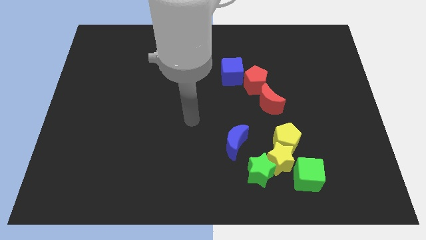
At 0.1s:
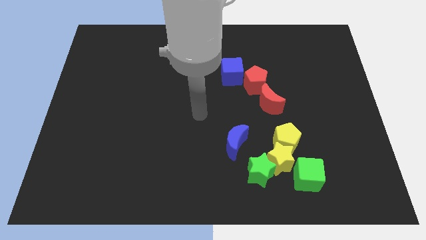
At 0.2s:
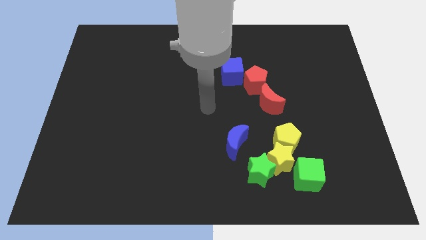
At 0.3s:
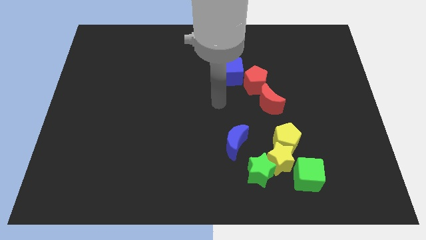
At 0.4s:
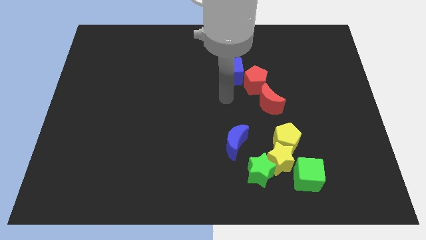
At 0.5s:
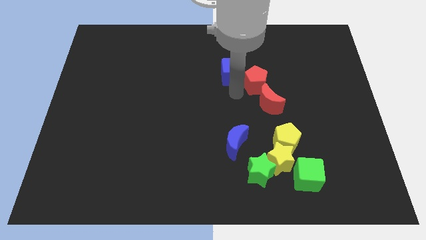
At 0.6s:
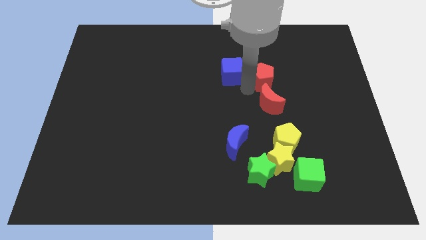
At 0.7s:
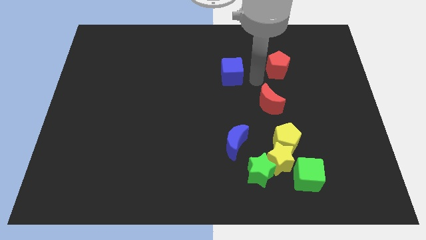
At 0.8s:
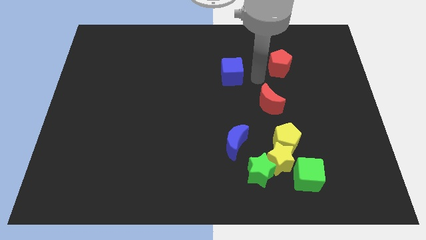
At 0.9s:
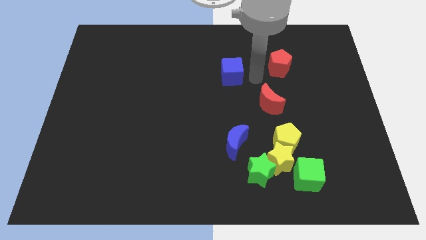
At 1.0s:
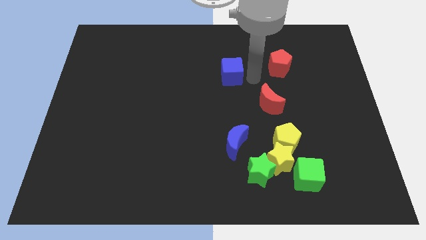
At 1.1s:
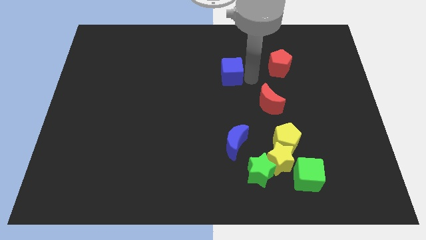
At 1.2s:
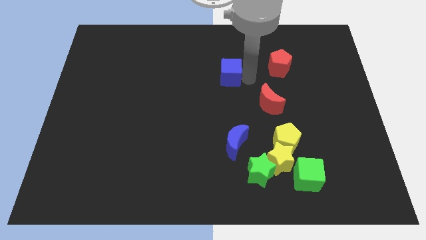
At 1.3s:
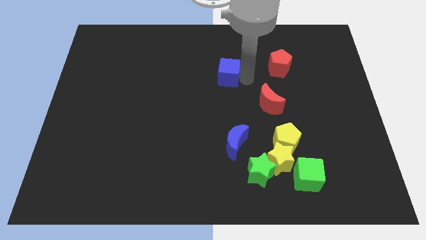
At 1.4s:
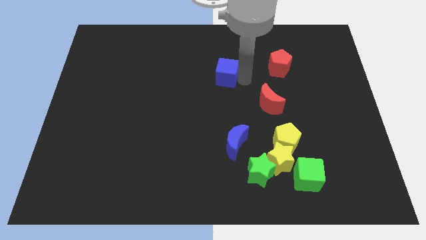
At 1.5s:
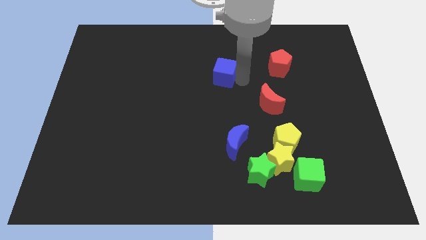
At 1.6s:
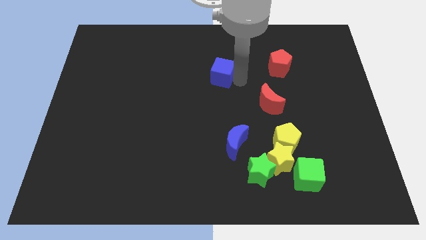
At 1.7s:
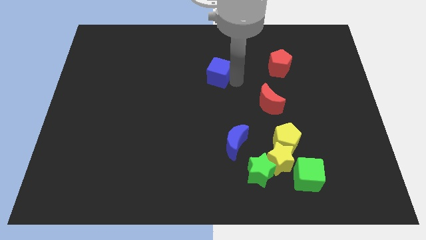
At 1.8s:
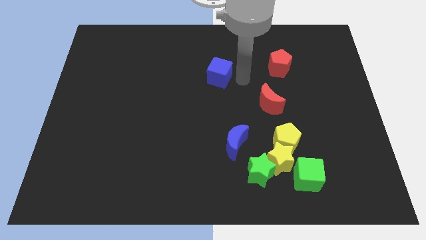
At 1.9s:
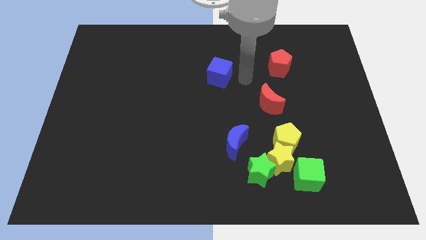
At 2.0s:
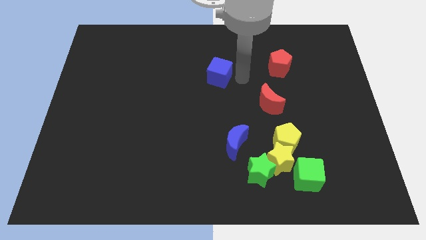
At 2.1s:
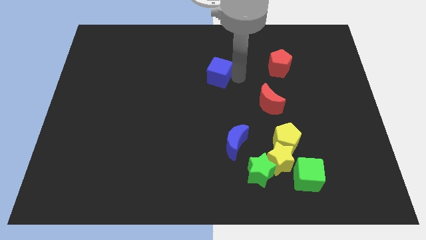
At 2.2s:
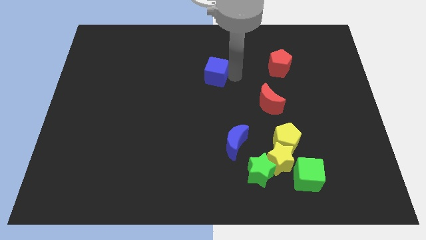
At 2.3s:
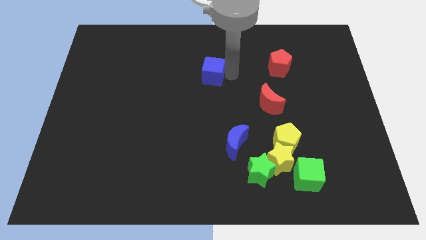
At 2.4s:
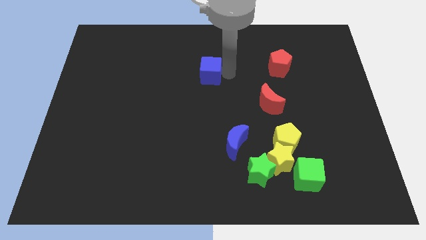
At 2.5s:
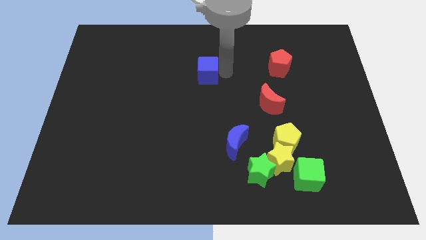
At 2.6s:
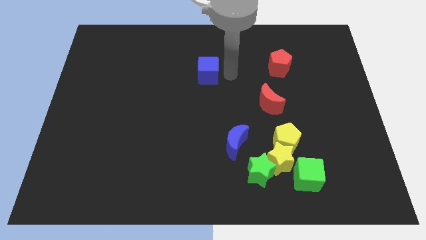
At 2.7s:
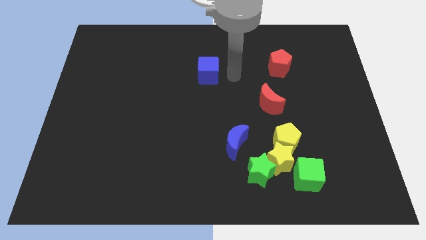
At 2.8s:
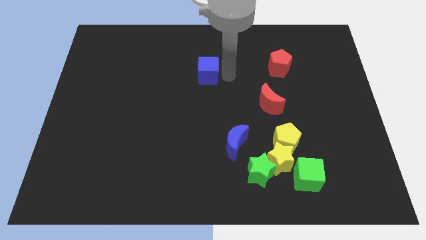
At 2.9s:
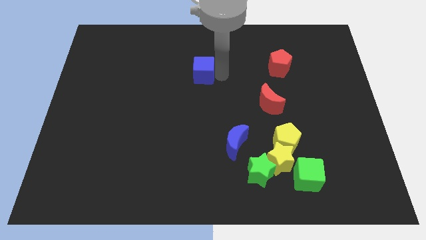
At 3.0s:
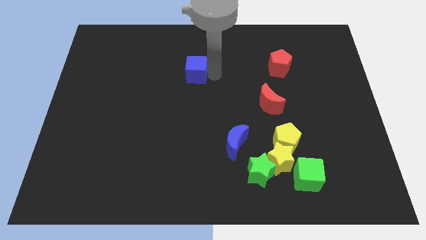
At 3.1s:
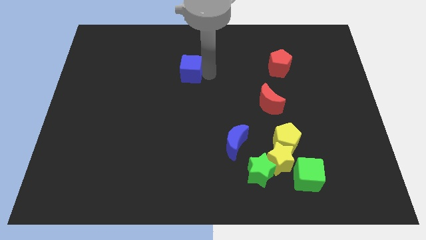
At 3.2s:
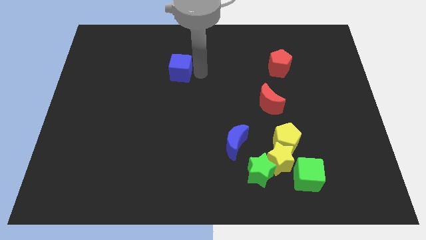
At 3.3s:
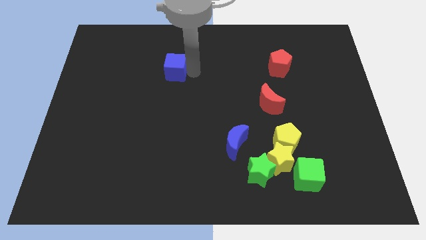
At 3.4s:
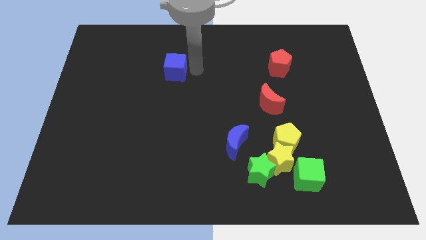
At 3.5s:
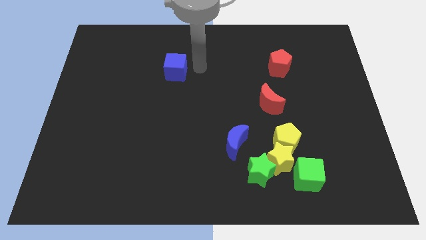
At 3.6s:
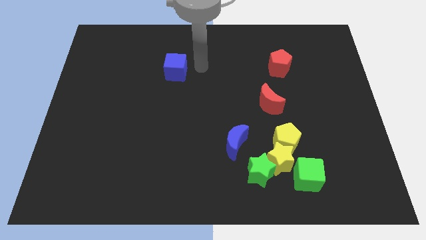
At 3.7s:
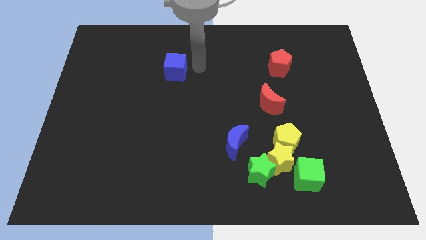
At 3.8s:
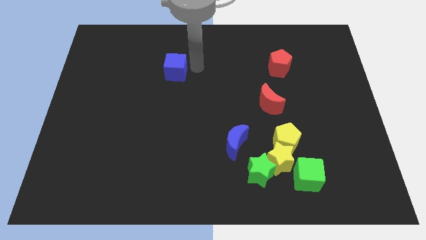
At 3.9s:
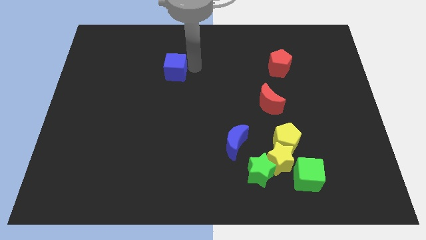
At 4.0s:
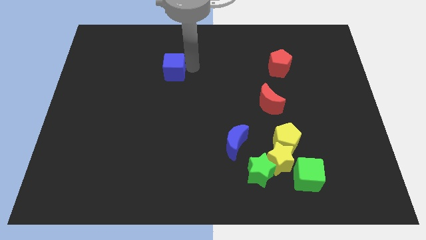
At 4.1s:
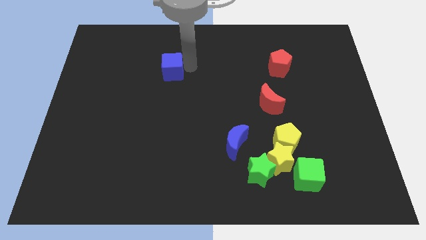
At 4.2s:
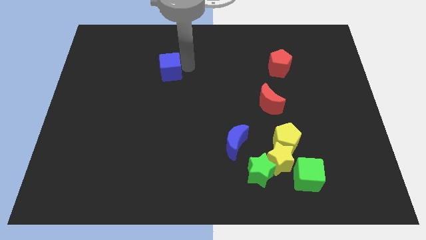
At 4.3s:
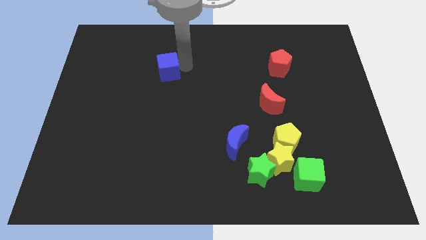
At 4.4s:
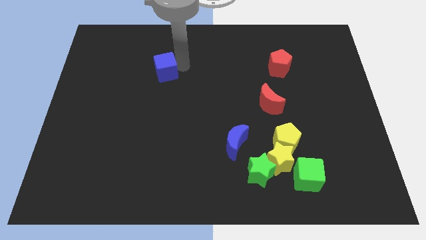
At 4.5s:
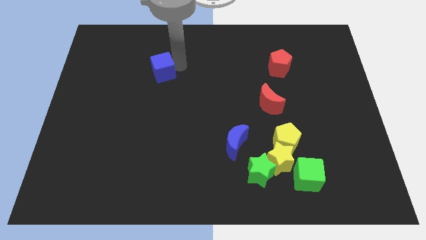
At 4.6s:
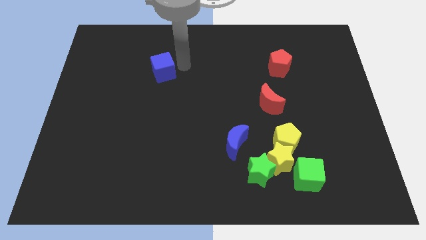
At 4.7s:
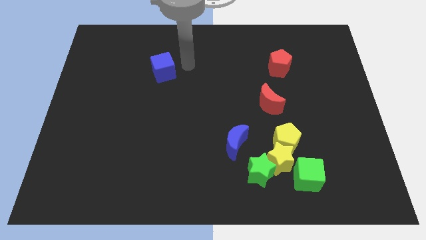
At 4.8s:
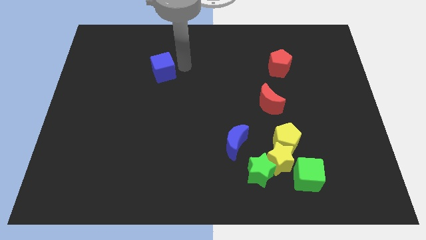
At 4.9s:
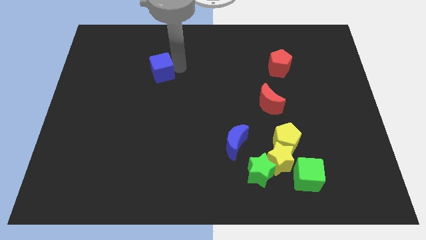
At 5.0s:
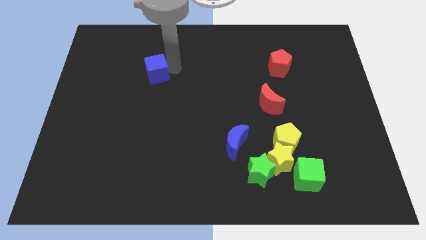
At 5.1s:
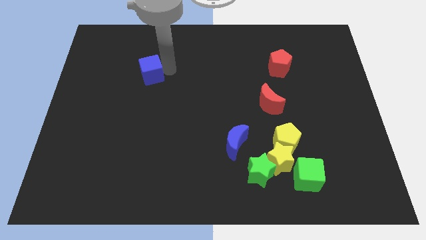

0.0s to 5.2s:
slide the blue cube left

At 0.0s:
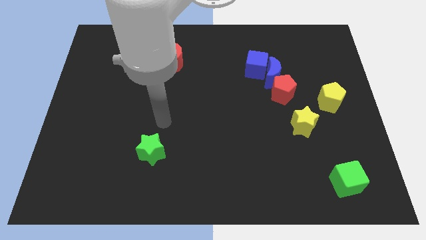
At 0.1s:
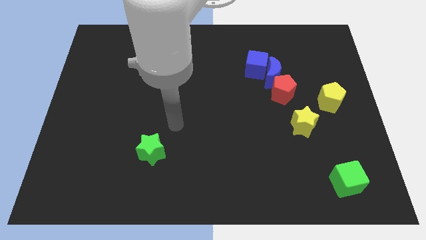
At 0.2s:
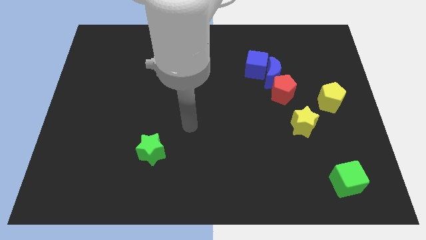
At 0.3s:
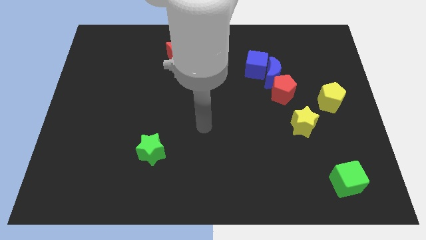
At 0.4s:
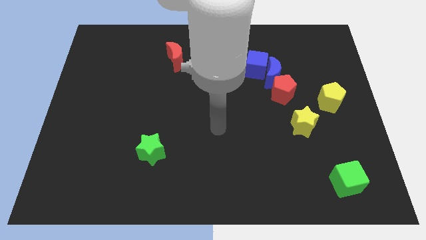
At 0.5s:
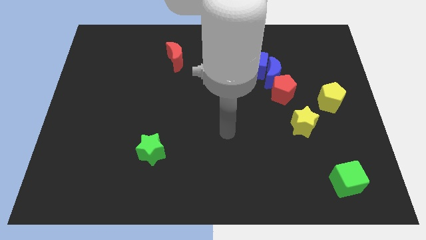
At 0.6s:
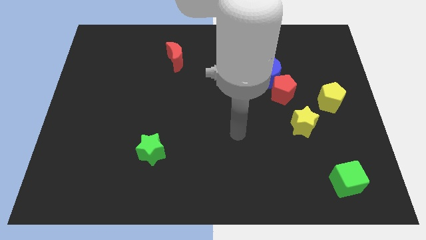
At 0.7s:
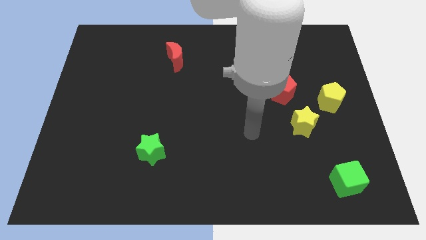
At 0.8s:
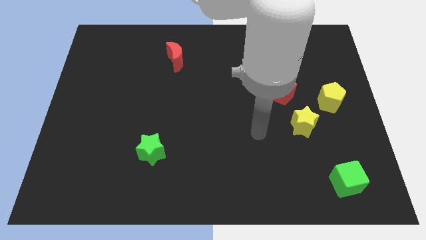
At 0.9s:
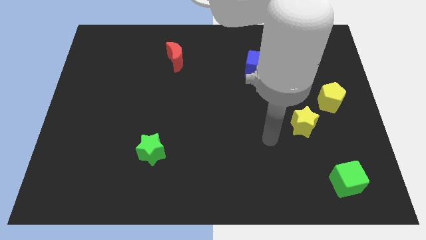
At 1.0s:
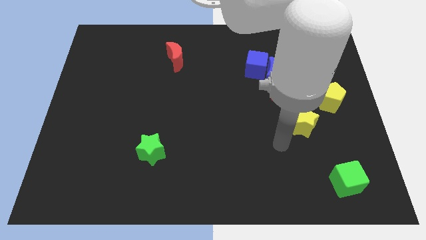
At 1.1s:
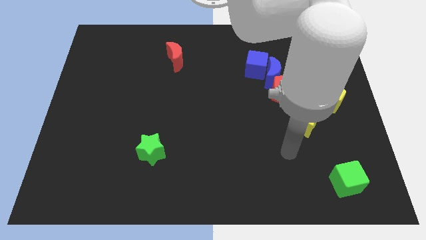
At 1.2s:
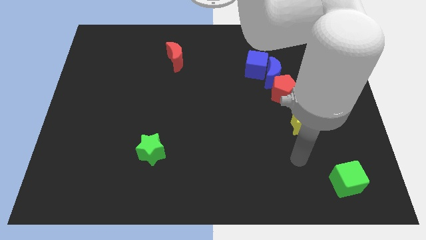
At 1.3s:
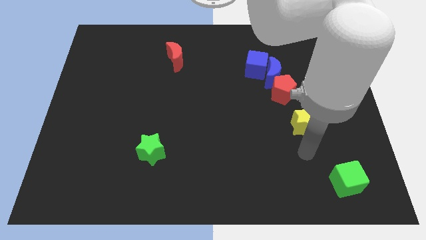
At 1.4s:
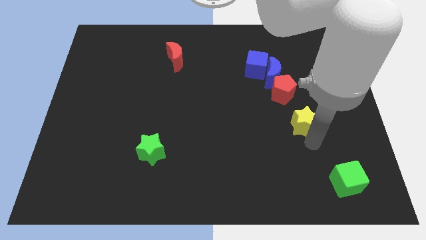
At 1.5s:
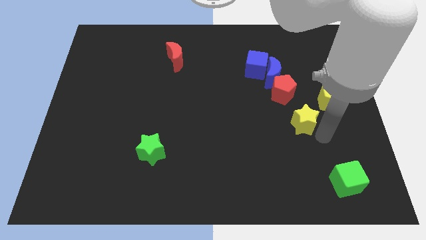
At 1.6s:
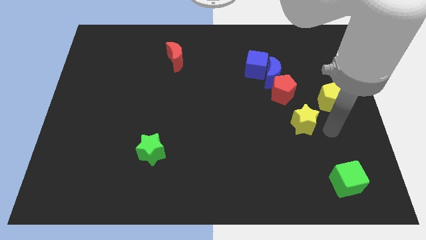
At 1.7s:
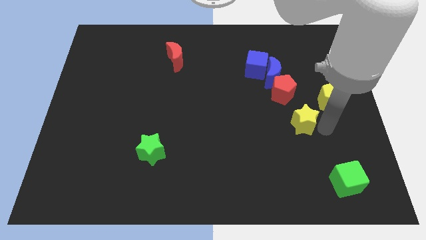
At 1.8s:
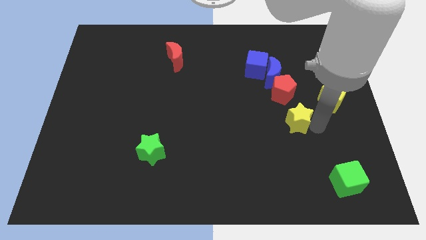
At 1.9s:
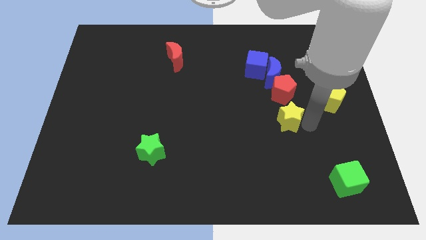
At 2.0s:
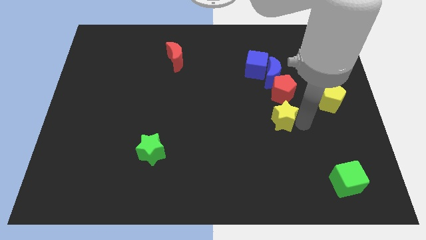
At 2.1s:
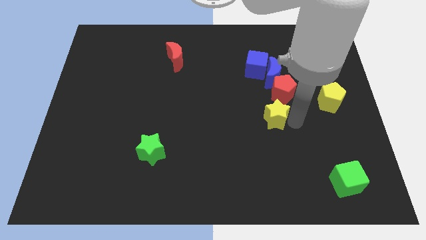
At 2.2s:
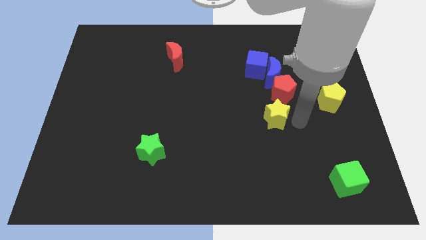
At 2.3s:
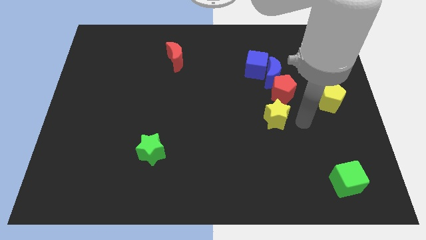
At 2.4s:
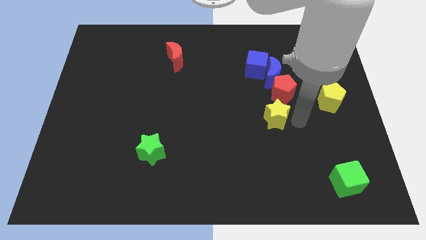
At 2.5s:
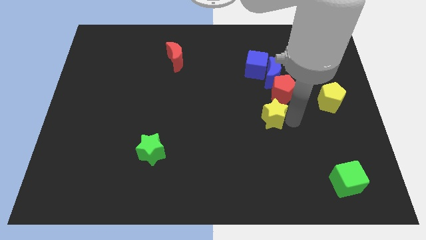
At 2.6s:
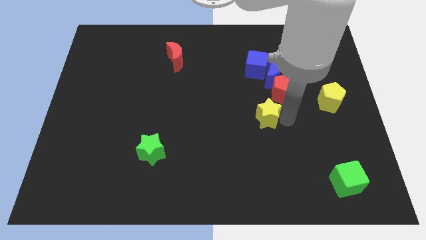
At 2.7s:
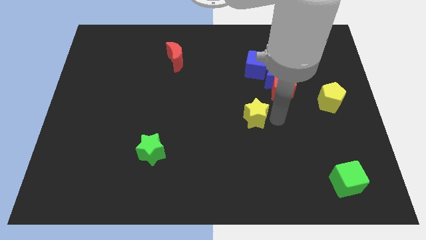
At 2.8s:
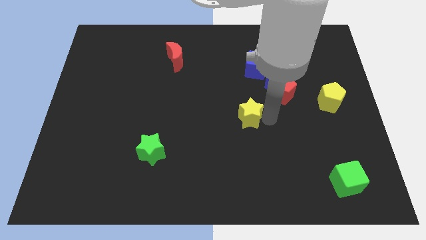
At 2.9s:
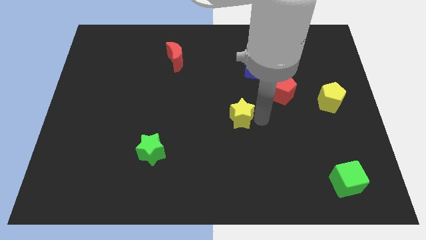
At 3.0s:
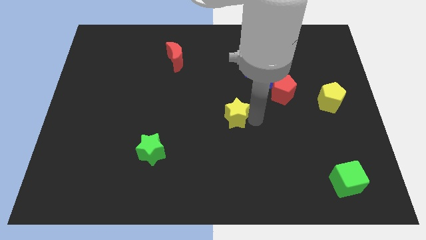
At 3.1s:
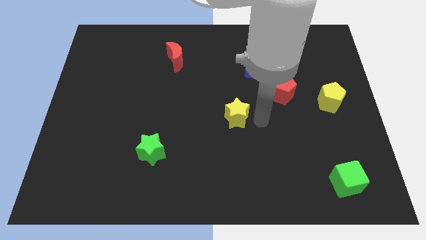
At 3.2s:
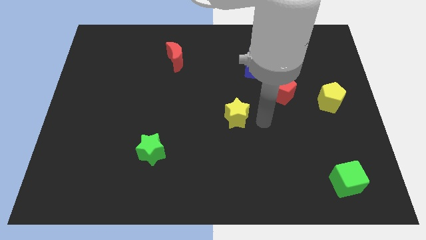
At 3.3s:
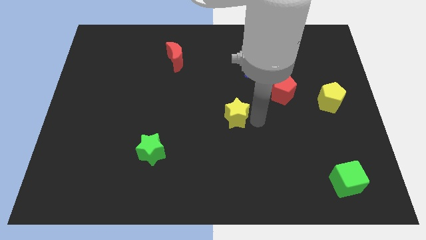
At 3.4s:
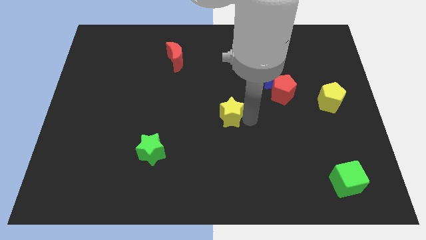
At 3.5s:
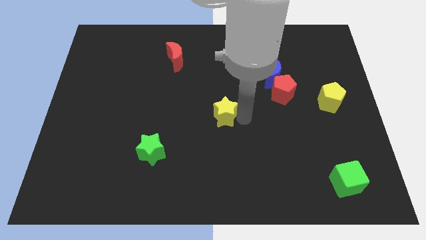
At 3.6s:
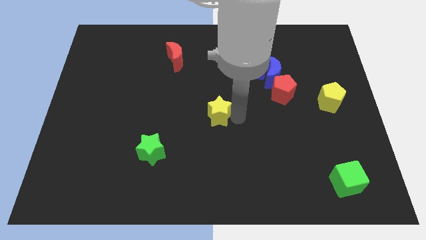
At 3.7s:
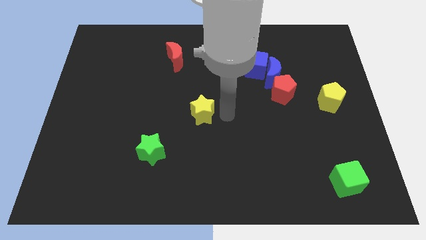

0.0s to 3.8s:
move the yellow star to the left
